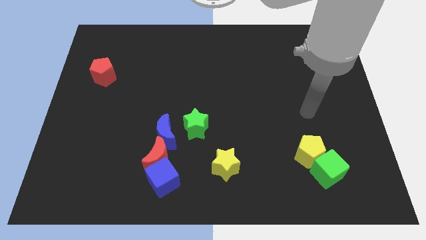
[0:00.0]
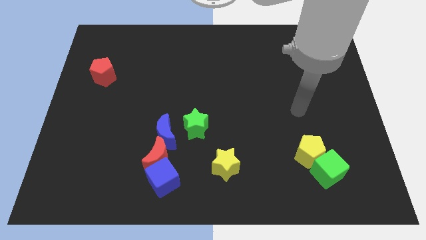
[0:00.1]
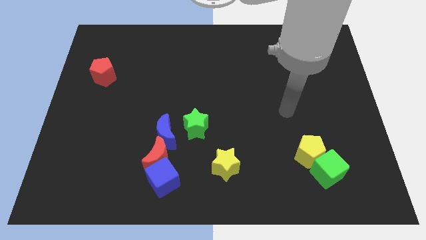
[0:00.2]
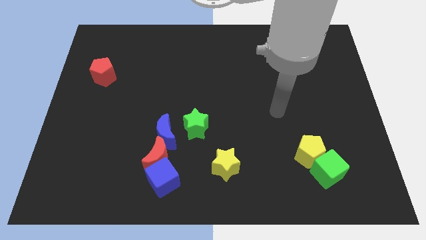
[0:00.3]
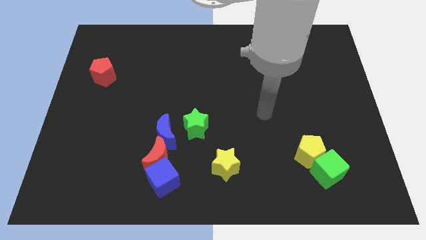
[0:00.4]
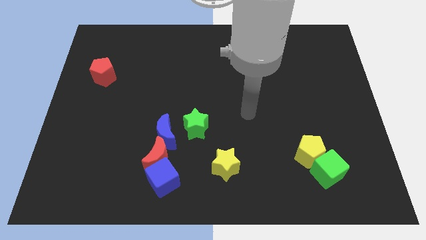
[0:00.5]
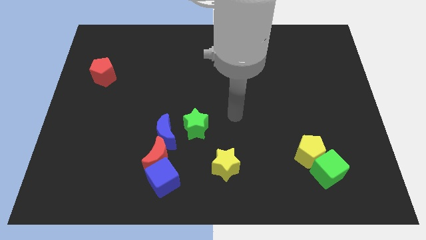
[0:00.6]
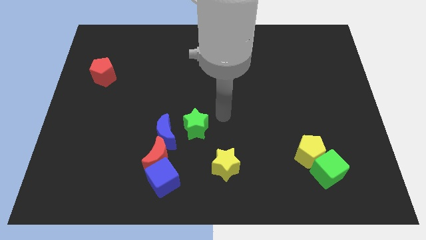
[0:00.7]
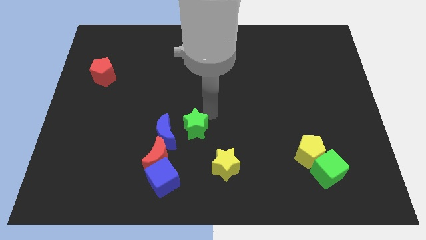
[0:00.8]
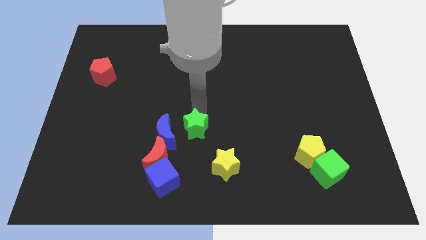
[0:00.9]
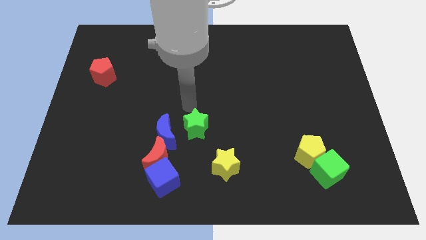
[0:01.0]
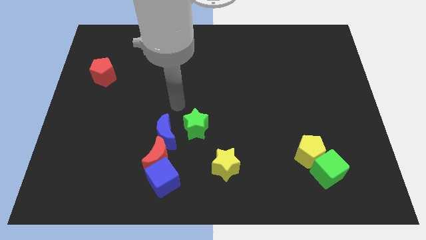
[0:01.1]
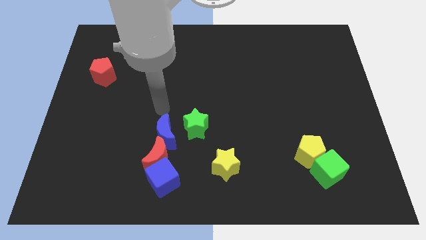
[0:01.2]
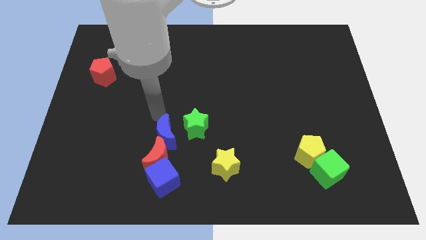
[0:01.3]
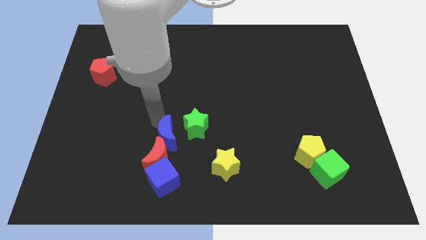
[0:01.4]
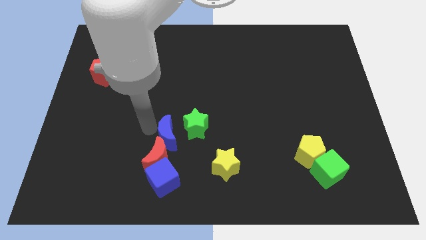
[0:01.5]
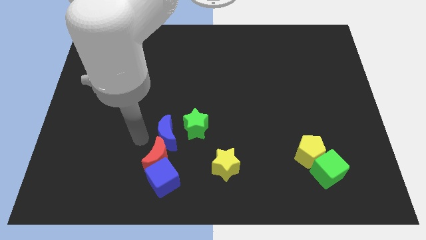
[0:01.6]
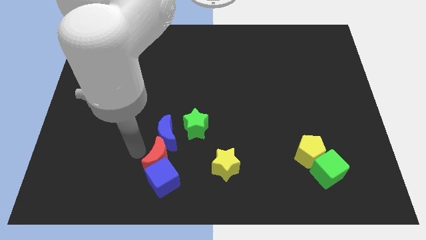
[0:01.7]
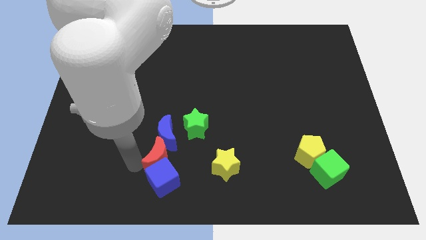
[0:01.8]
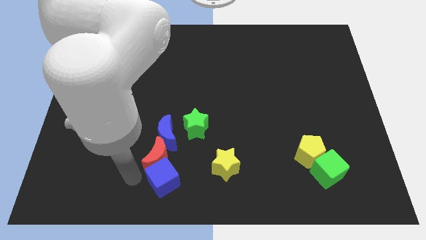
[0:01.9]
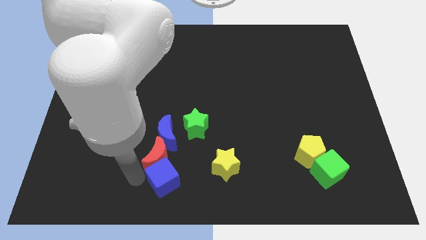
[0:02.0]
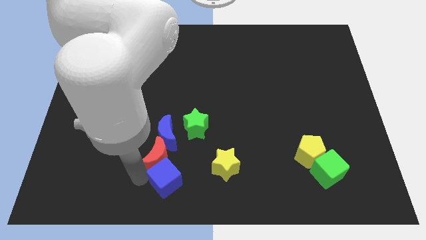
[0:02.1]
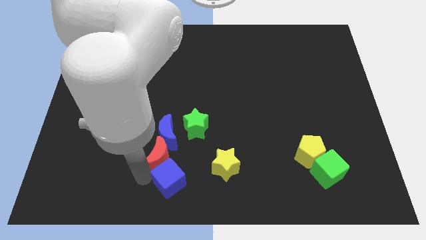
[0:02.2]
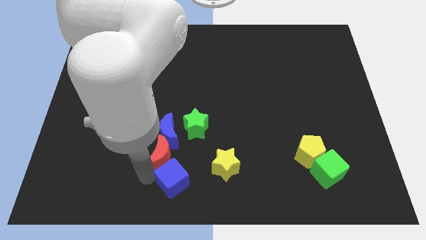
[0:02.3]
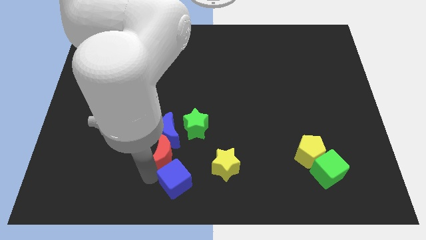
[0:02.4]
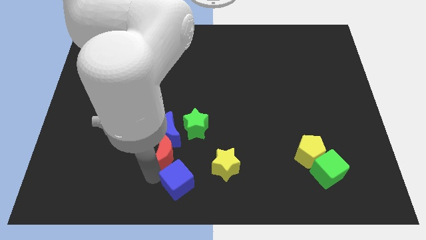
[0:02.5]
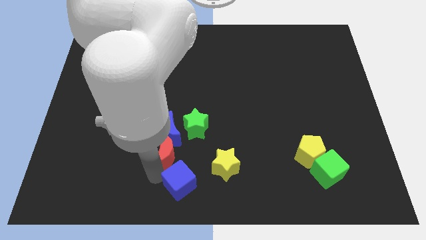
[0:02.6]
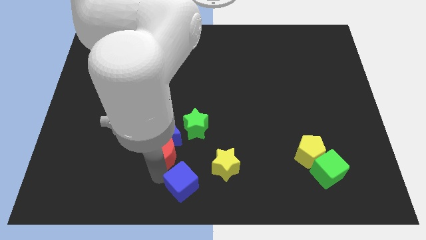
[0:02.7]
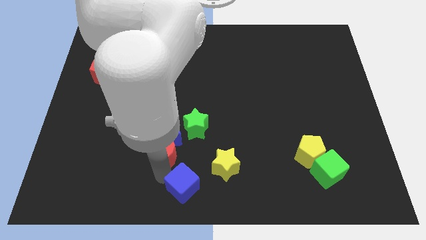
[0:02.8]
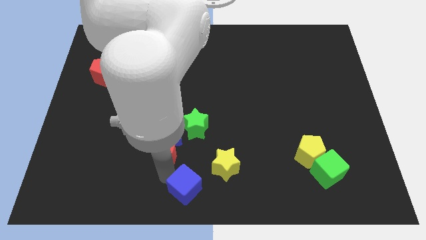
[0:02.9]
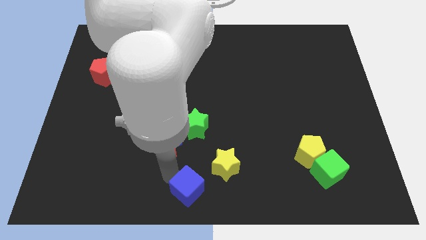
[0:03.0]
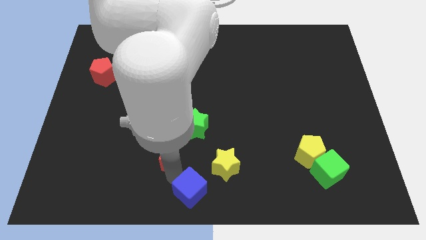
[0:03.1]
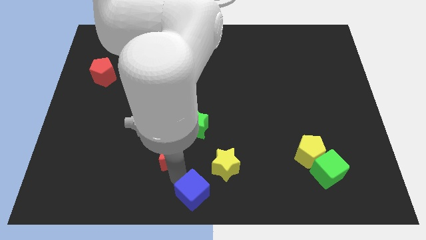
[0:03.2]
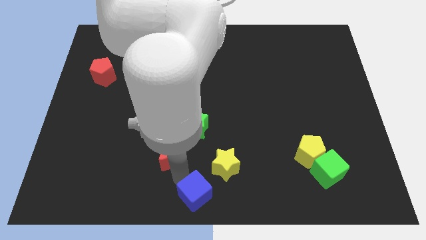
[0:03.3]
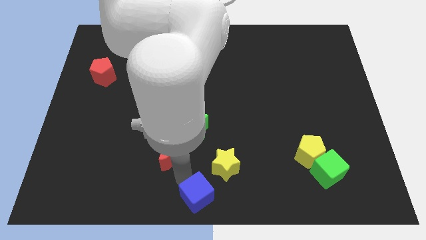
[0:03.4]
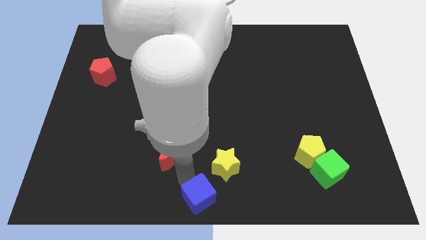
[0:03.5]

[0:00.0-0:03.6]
push the blue cube to the right somewhat

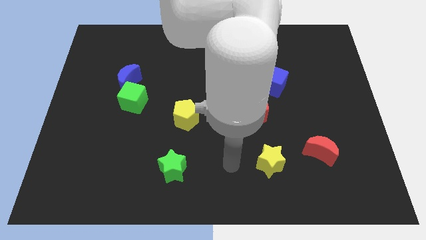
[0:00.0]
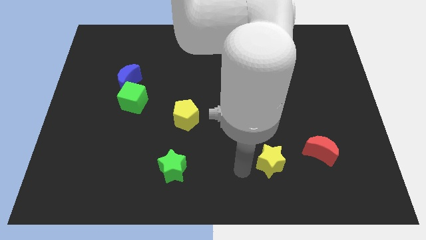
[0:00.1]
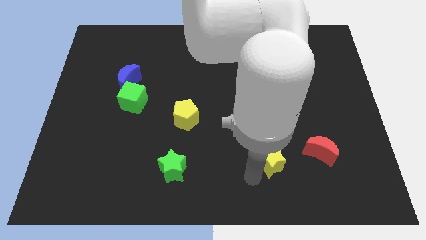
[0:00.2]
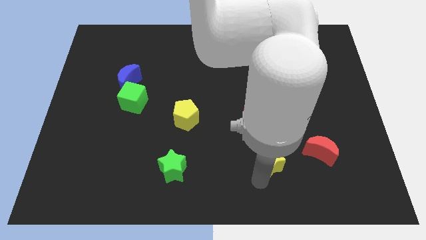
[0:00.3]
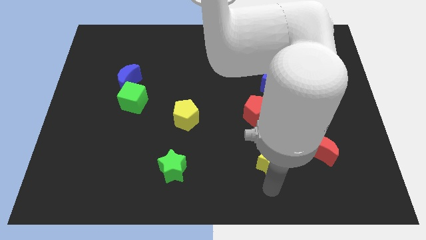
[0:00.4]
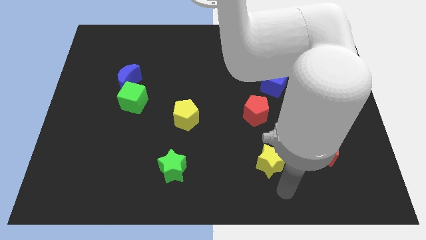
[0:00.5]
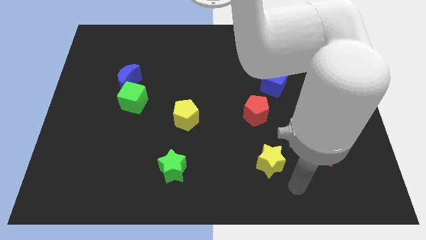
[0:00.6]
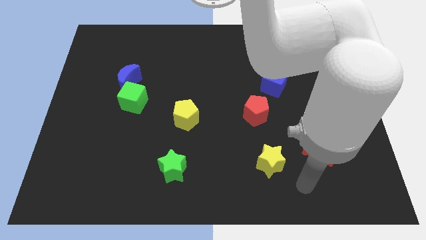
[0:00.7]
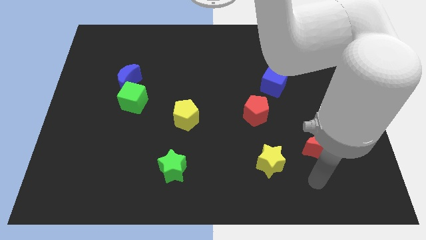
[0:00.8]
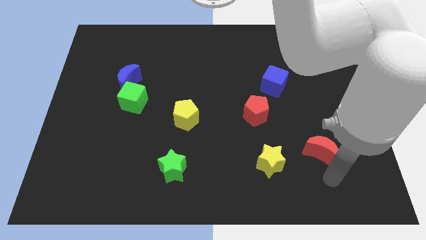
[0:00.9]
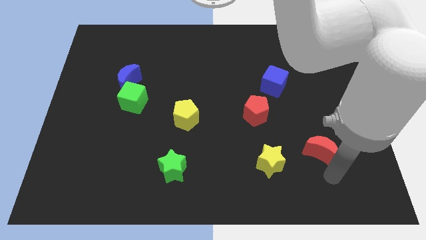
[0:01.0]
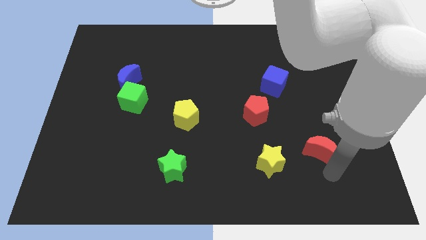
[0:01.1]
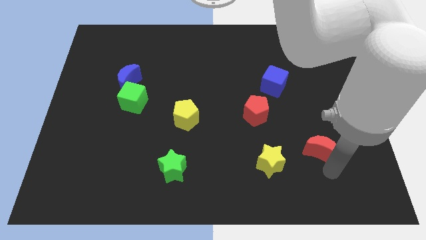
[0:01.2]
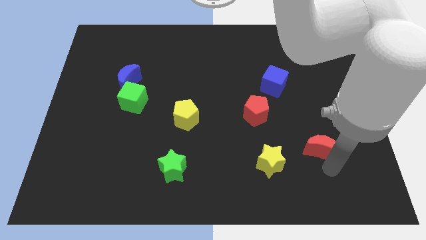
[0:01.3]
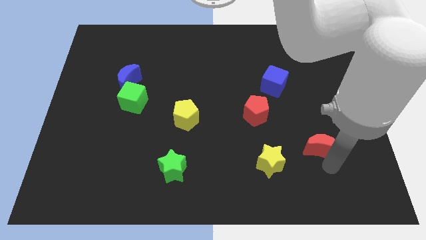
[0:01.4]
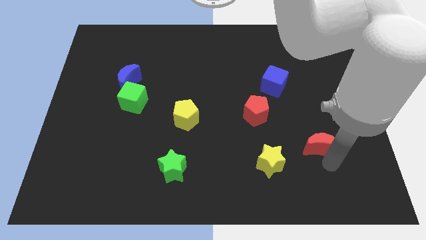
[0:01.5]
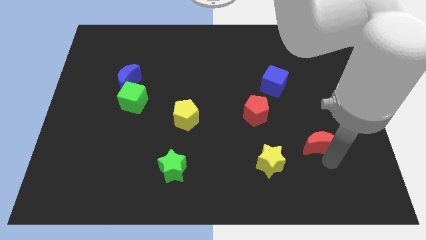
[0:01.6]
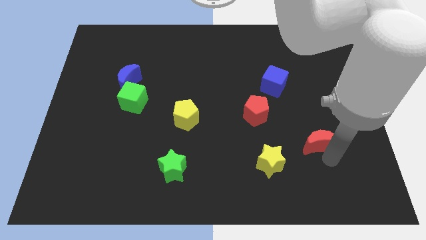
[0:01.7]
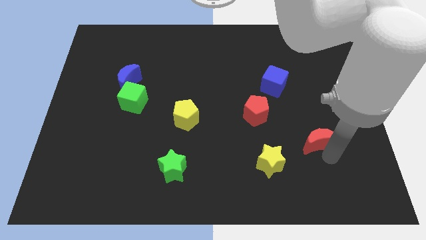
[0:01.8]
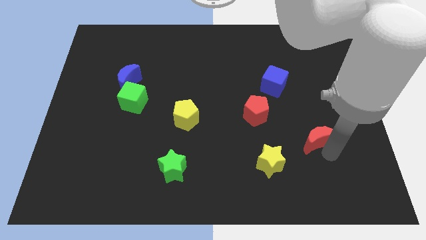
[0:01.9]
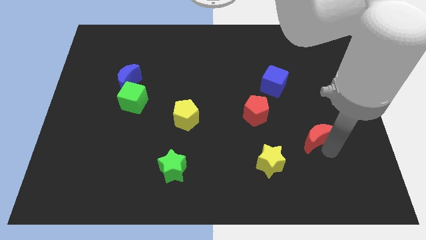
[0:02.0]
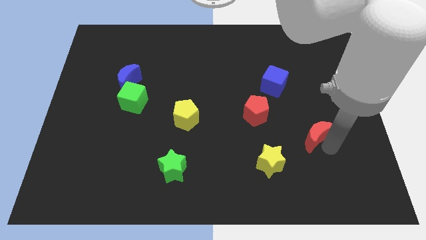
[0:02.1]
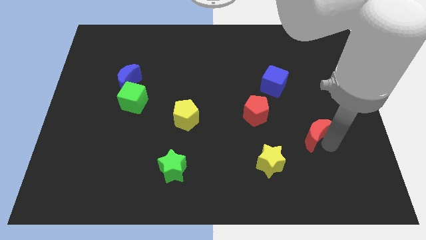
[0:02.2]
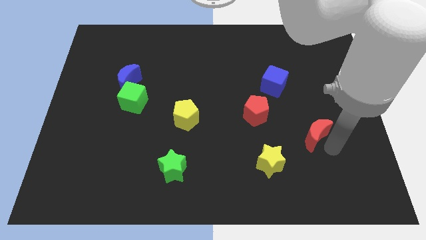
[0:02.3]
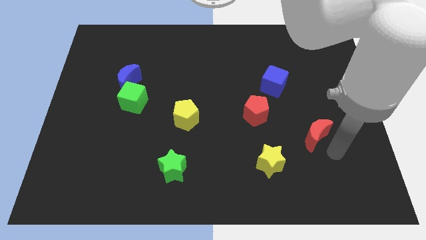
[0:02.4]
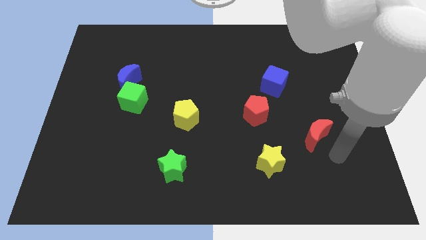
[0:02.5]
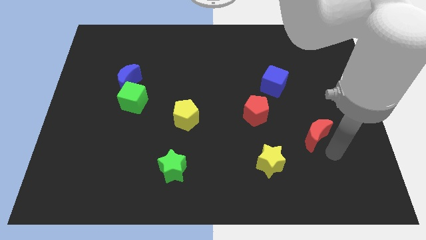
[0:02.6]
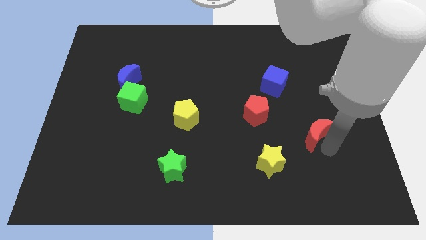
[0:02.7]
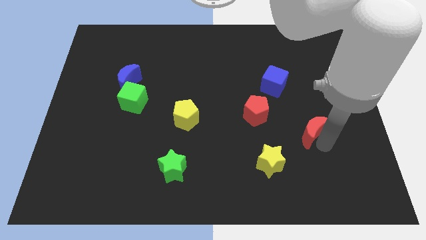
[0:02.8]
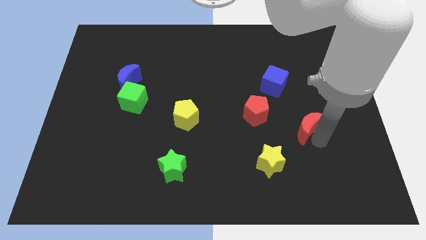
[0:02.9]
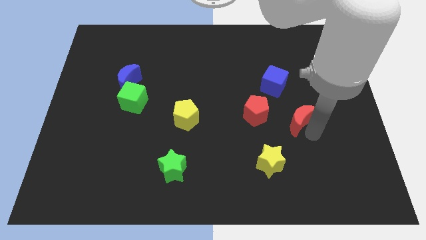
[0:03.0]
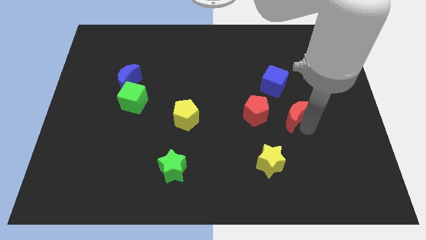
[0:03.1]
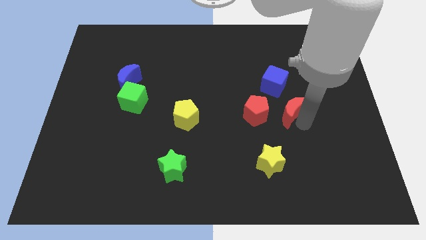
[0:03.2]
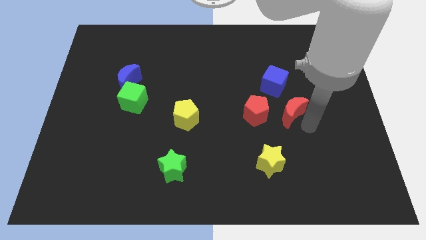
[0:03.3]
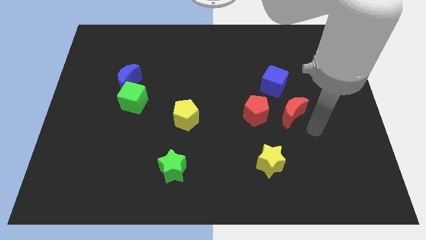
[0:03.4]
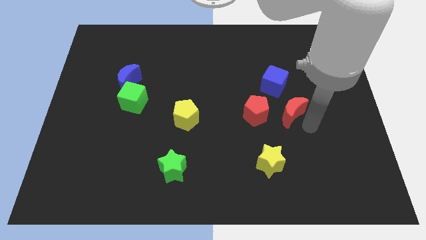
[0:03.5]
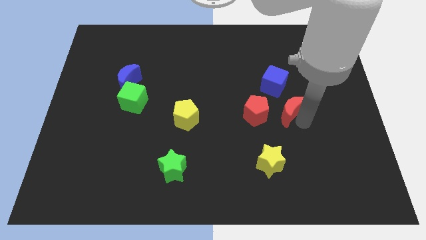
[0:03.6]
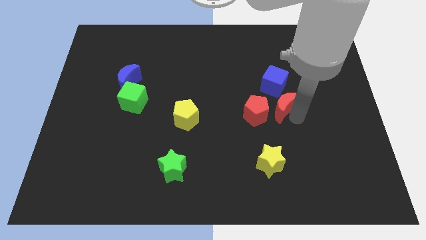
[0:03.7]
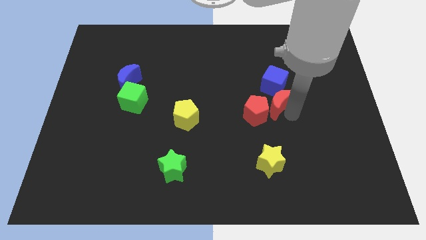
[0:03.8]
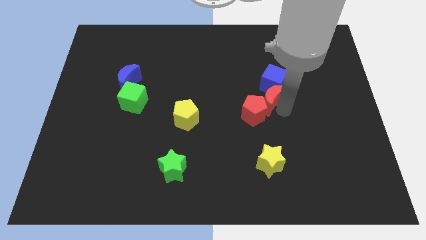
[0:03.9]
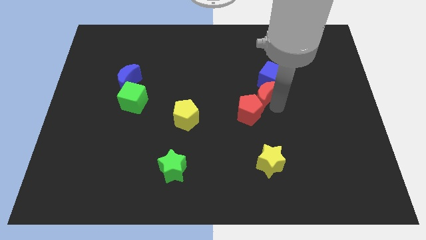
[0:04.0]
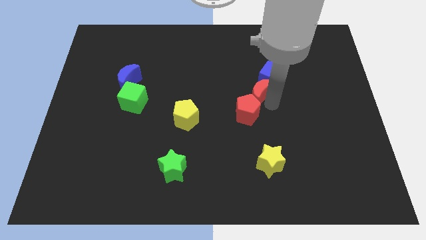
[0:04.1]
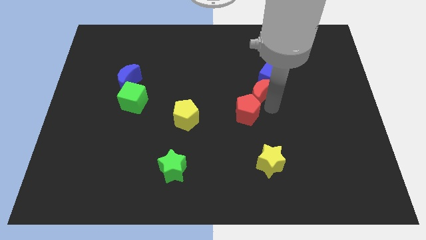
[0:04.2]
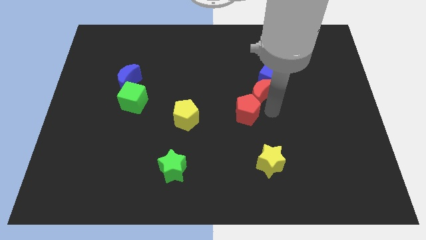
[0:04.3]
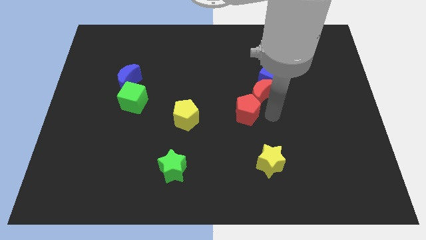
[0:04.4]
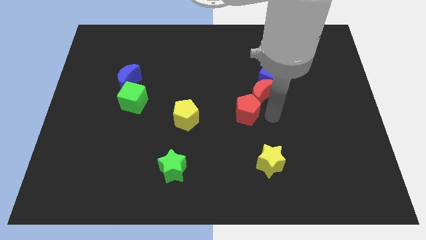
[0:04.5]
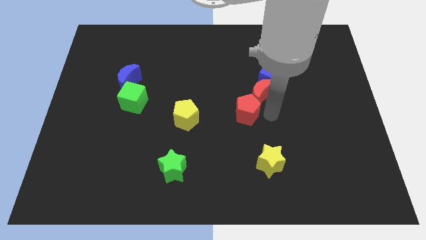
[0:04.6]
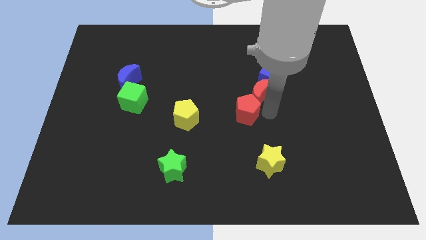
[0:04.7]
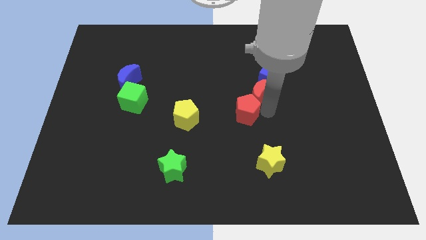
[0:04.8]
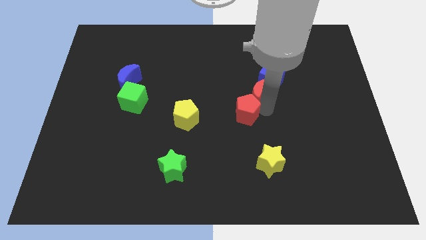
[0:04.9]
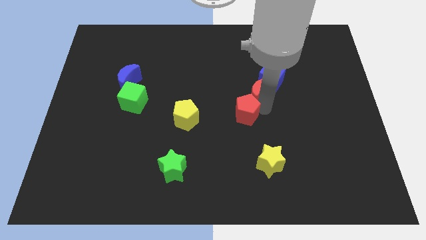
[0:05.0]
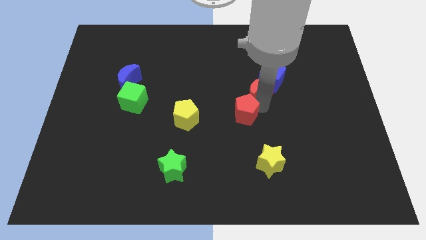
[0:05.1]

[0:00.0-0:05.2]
push the red moon upwards and left diagonally
